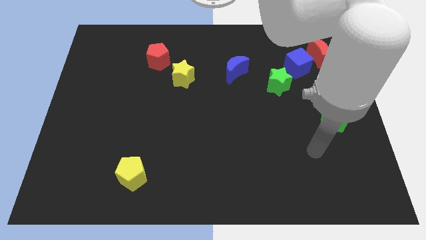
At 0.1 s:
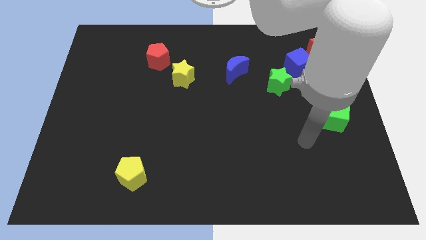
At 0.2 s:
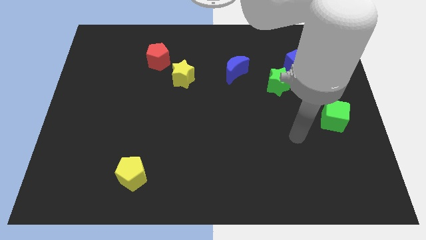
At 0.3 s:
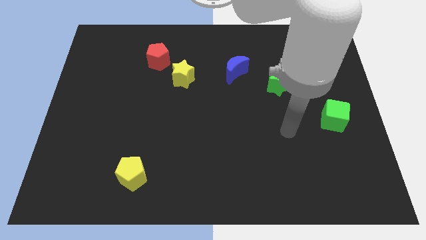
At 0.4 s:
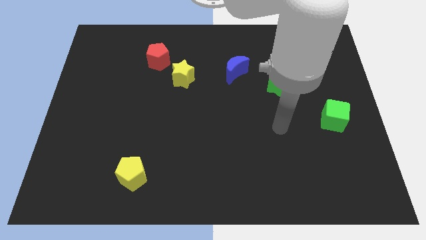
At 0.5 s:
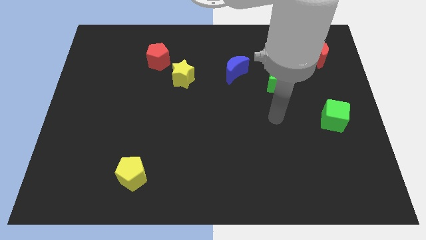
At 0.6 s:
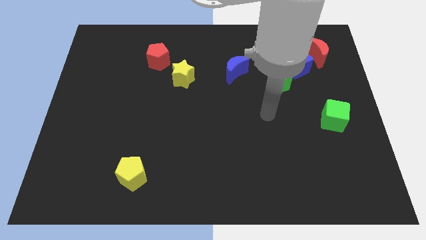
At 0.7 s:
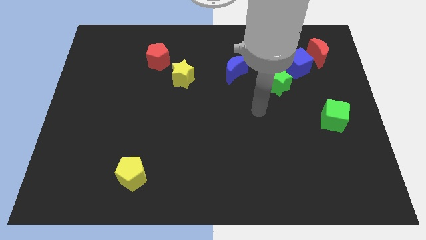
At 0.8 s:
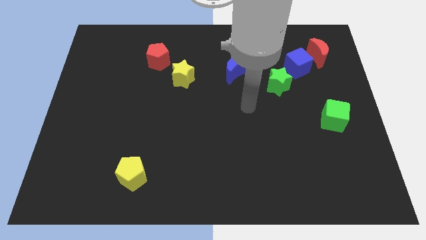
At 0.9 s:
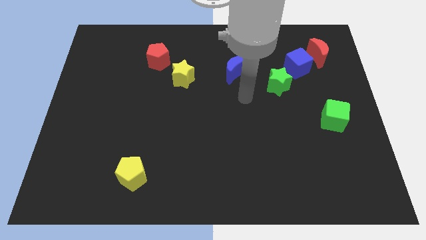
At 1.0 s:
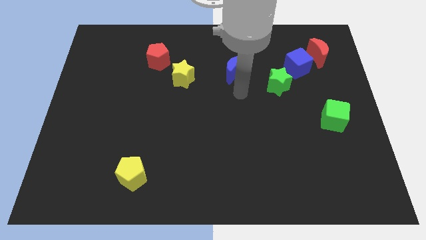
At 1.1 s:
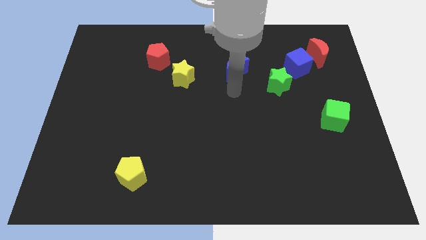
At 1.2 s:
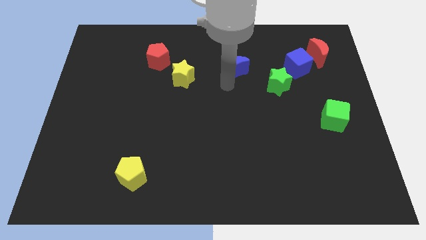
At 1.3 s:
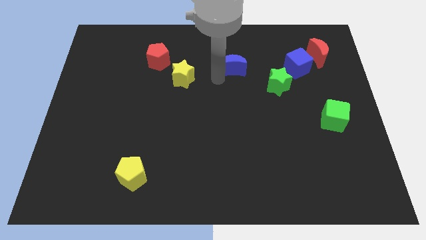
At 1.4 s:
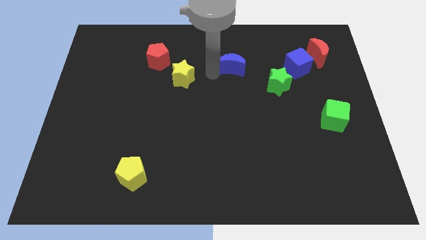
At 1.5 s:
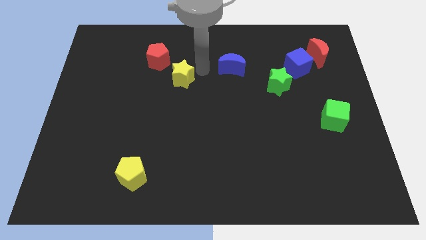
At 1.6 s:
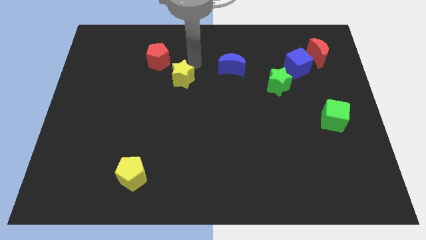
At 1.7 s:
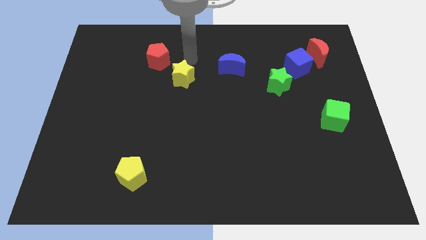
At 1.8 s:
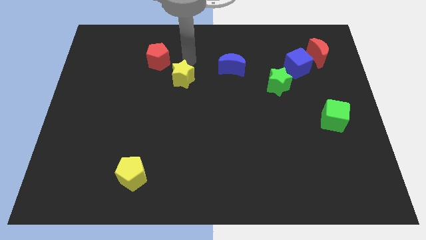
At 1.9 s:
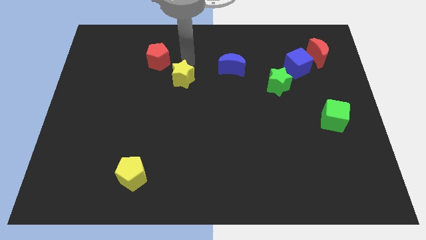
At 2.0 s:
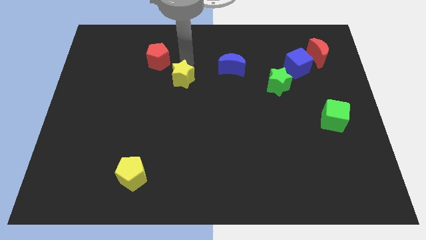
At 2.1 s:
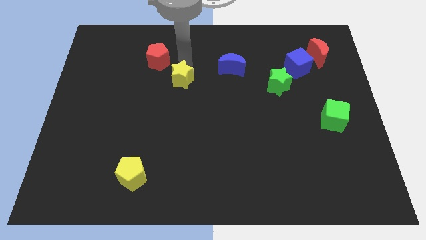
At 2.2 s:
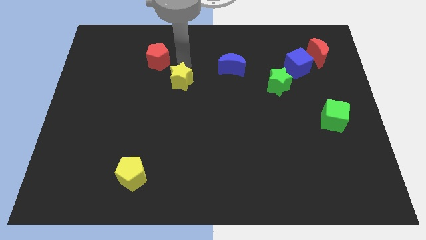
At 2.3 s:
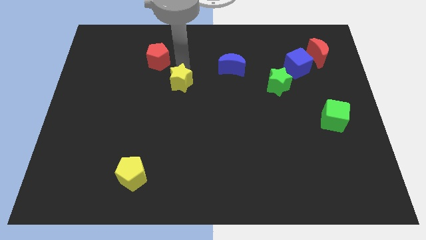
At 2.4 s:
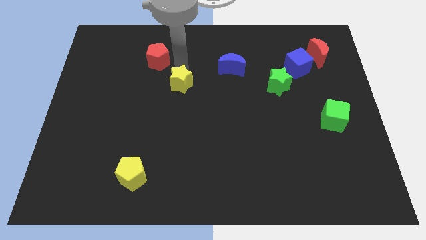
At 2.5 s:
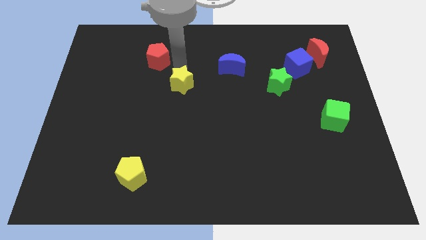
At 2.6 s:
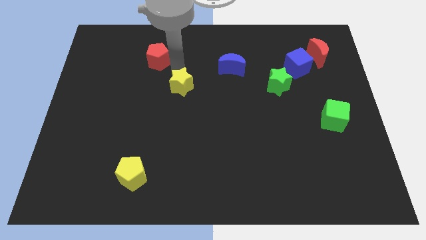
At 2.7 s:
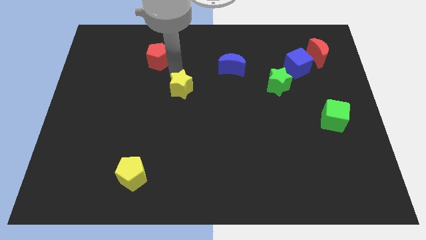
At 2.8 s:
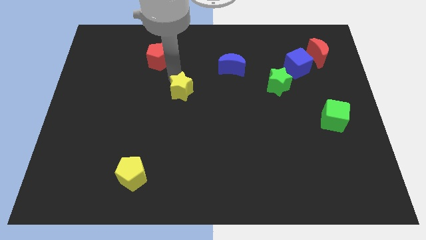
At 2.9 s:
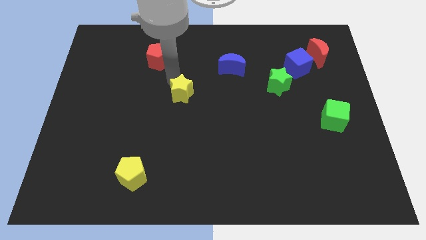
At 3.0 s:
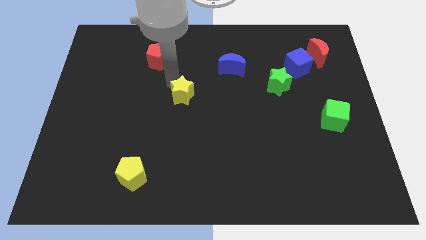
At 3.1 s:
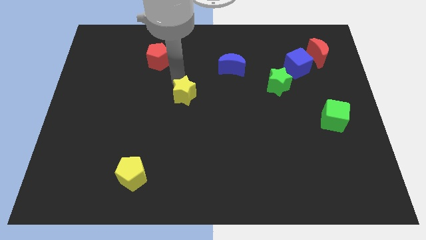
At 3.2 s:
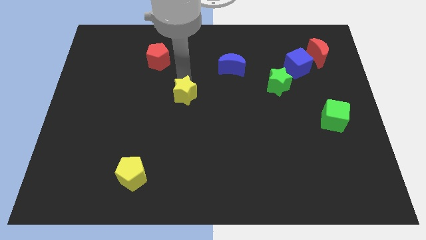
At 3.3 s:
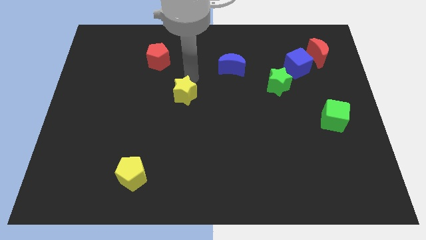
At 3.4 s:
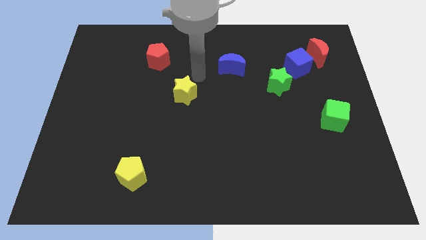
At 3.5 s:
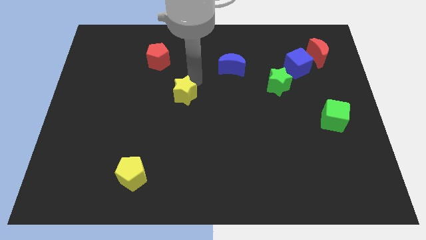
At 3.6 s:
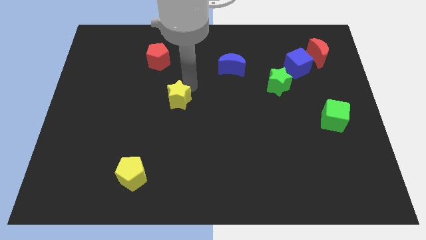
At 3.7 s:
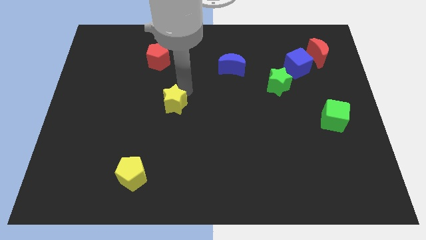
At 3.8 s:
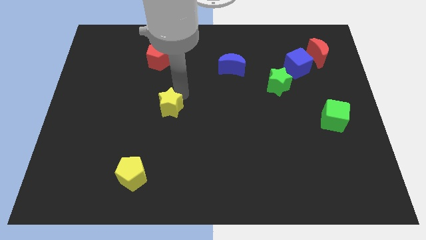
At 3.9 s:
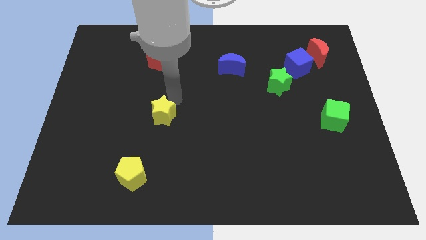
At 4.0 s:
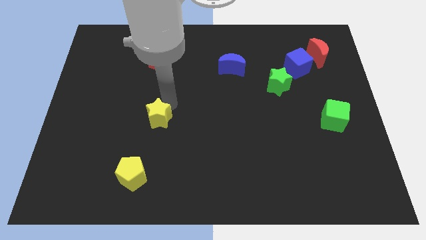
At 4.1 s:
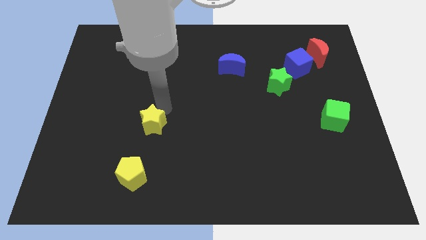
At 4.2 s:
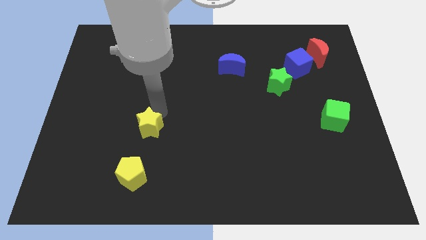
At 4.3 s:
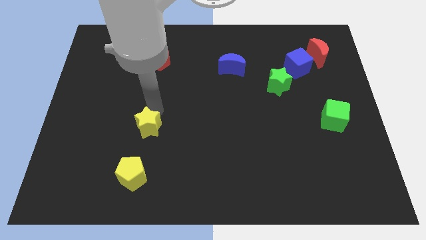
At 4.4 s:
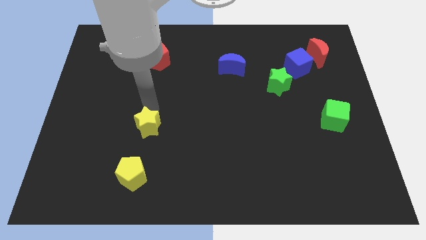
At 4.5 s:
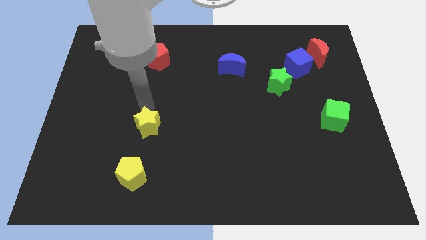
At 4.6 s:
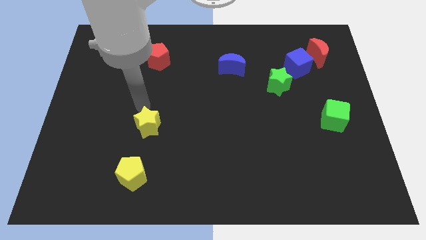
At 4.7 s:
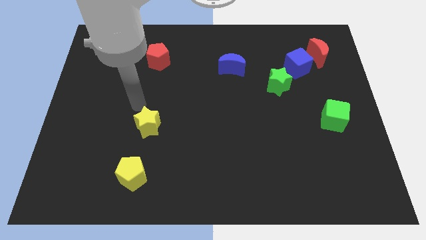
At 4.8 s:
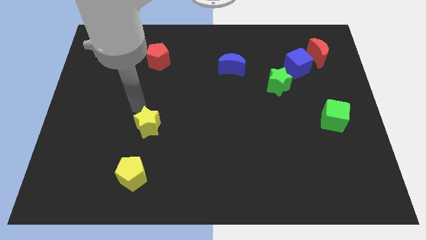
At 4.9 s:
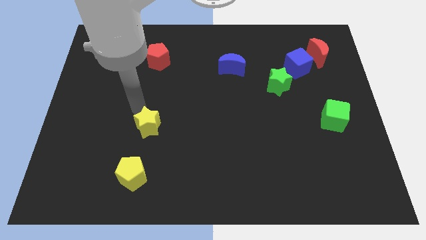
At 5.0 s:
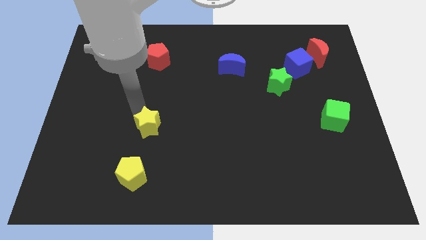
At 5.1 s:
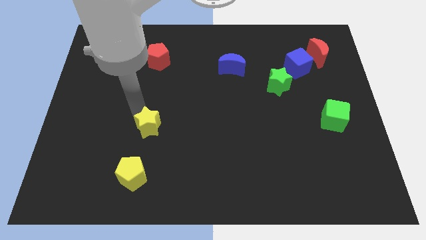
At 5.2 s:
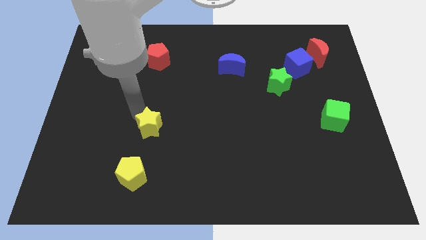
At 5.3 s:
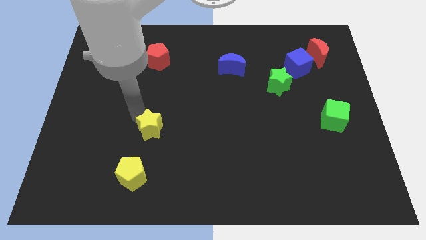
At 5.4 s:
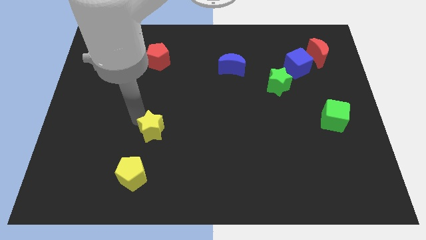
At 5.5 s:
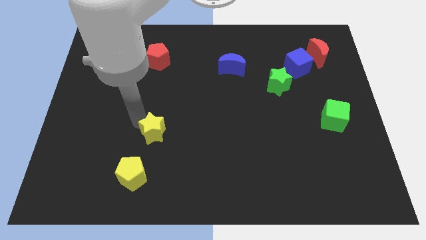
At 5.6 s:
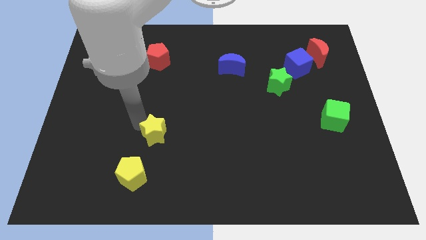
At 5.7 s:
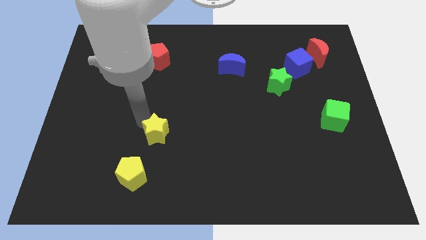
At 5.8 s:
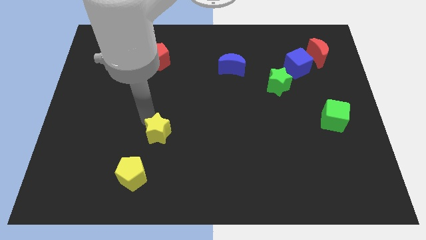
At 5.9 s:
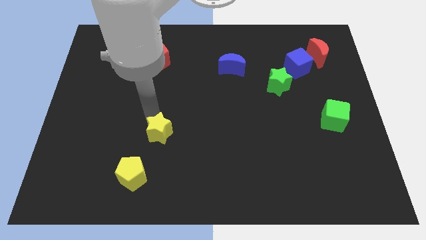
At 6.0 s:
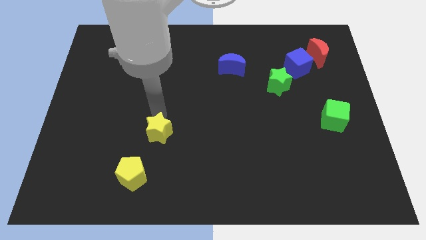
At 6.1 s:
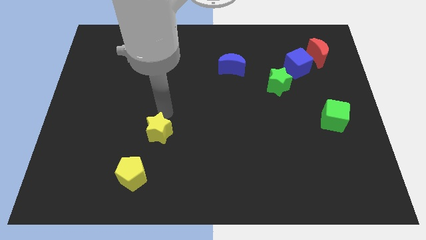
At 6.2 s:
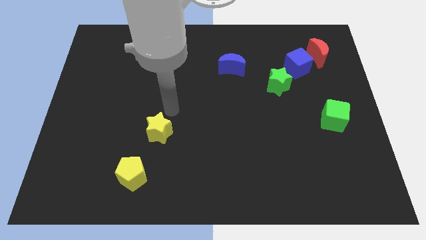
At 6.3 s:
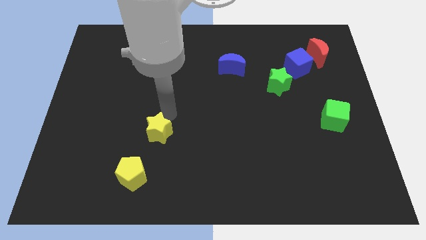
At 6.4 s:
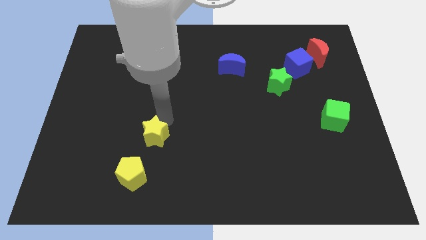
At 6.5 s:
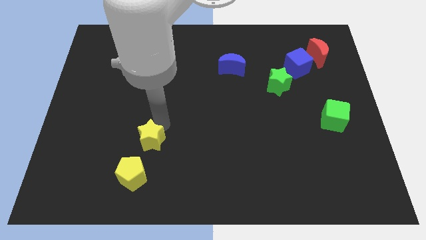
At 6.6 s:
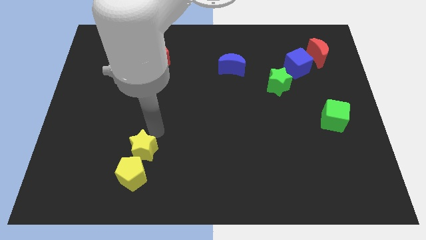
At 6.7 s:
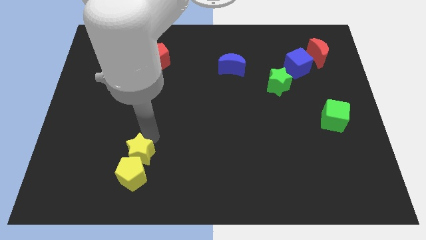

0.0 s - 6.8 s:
put the yellow star close to the yellow pentagon
